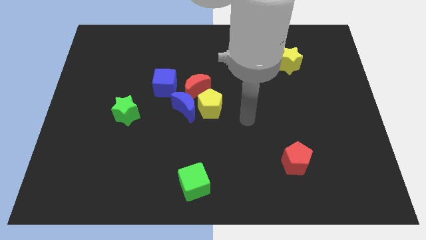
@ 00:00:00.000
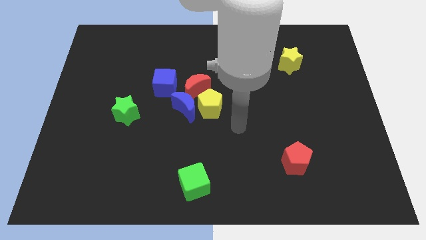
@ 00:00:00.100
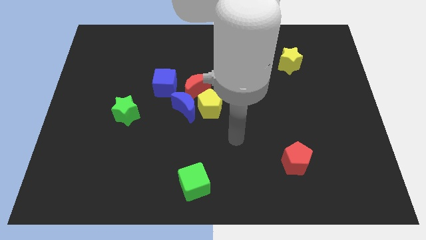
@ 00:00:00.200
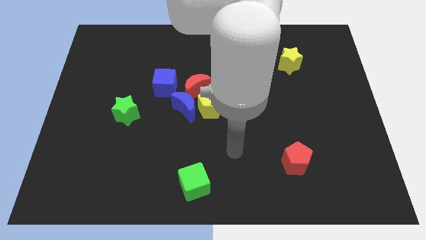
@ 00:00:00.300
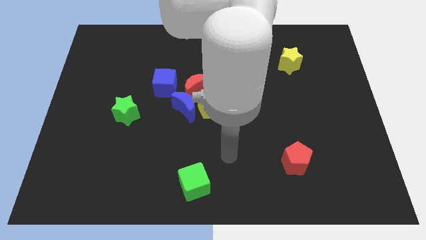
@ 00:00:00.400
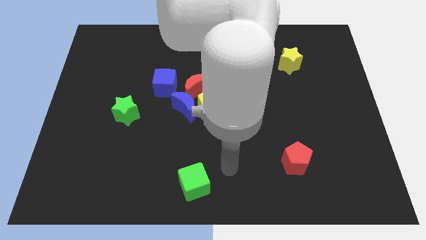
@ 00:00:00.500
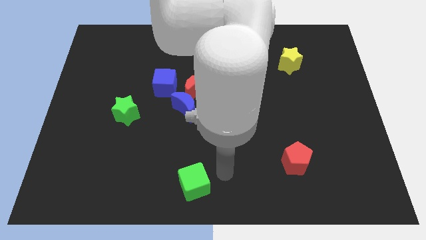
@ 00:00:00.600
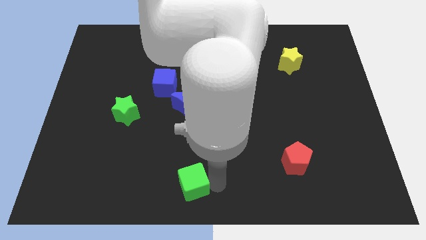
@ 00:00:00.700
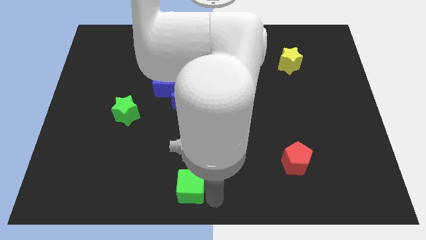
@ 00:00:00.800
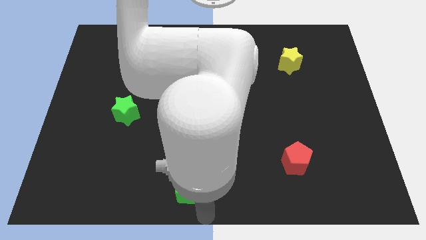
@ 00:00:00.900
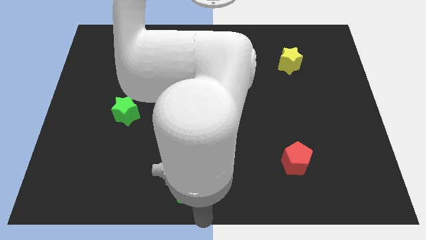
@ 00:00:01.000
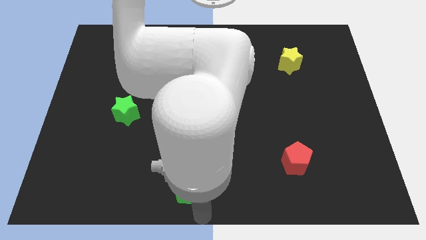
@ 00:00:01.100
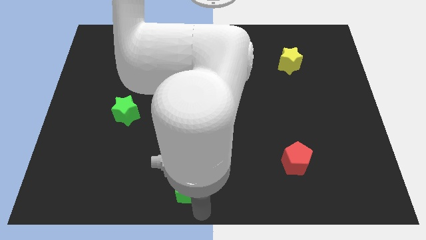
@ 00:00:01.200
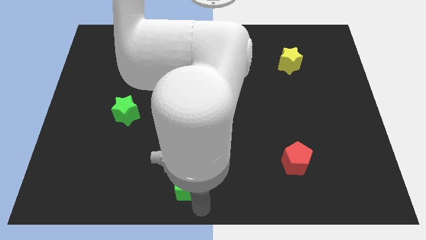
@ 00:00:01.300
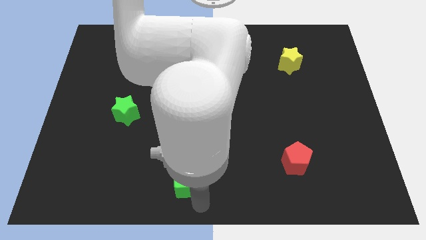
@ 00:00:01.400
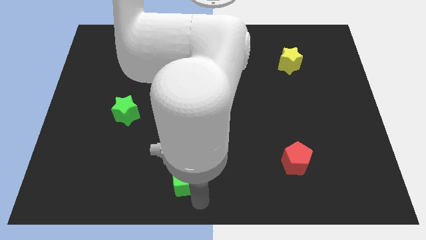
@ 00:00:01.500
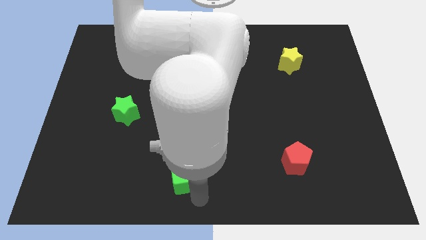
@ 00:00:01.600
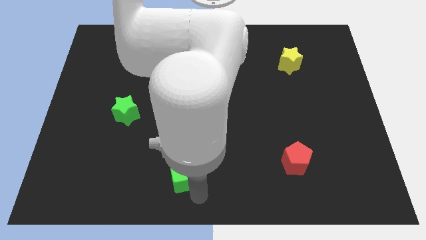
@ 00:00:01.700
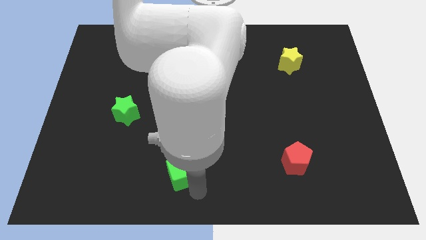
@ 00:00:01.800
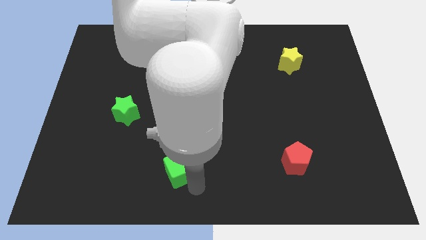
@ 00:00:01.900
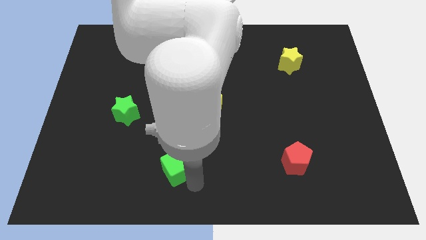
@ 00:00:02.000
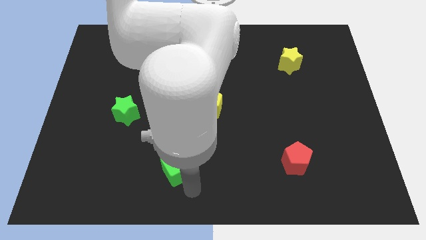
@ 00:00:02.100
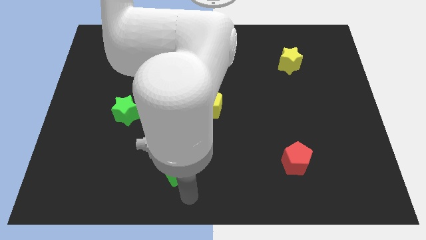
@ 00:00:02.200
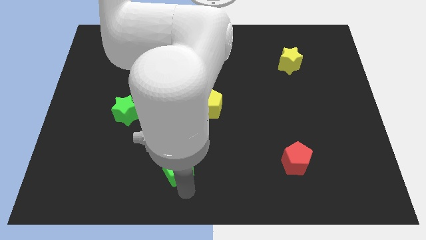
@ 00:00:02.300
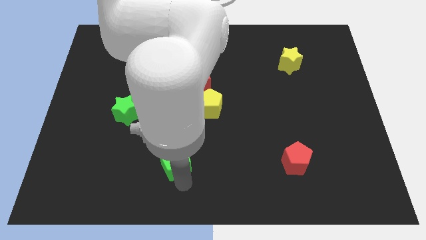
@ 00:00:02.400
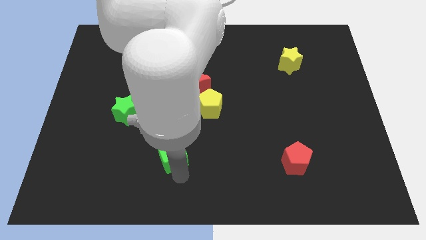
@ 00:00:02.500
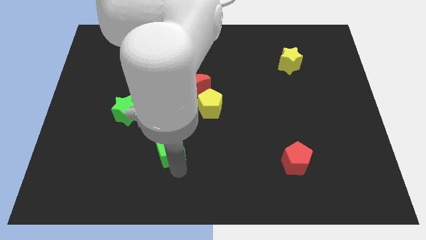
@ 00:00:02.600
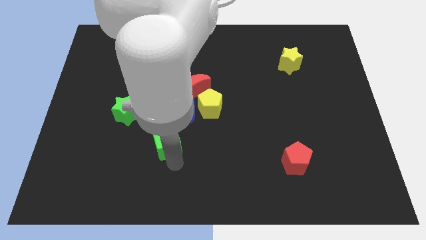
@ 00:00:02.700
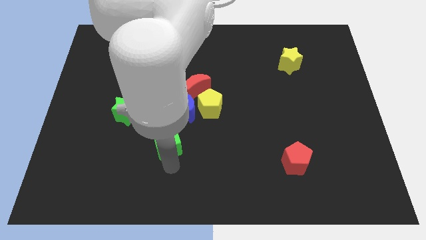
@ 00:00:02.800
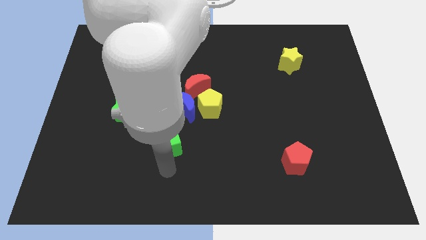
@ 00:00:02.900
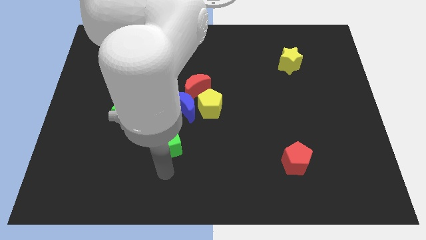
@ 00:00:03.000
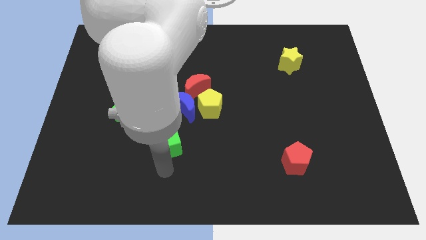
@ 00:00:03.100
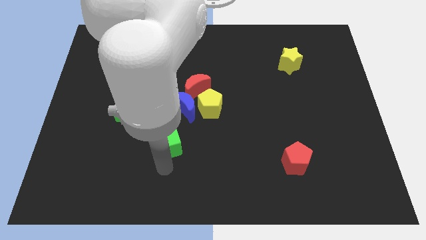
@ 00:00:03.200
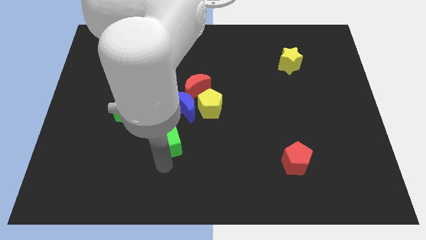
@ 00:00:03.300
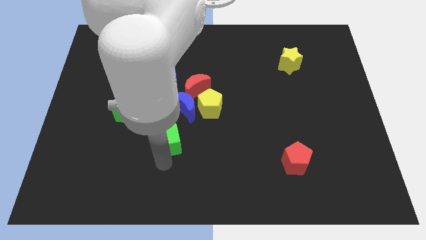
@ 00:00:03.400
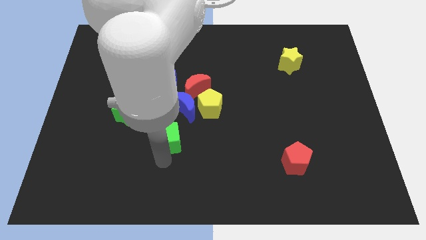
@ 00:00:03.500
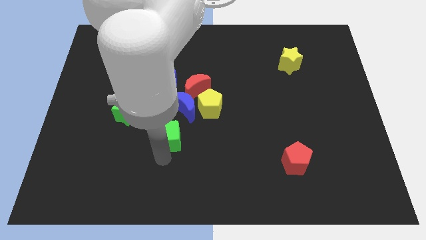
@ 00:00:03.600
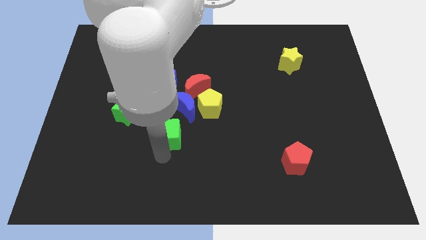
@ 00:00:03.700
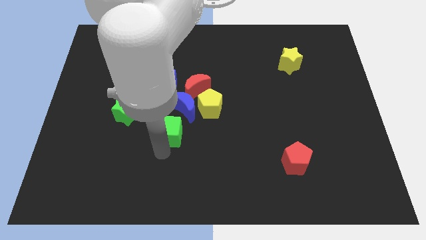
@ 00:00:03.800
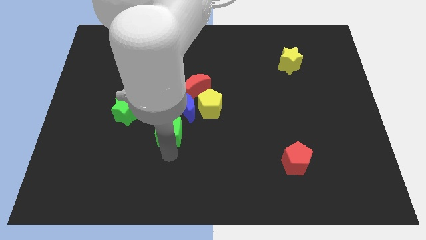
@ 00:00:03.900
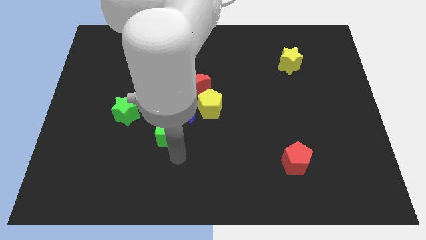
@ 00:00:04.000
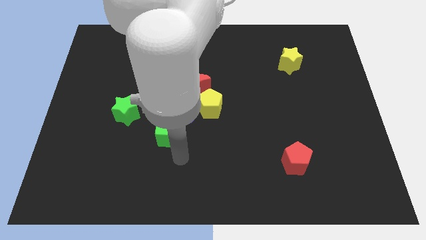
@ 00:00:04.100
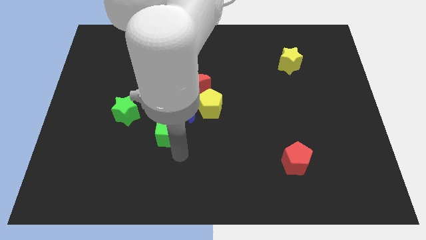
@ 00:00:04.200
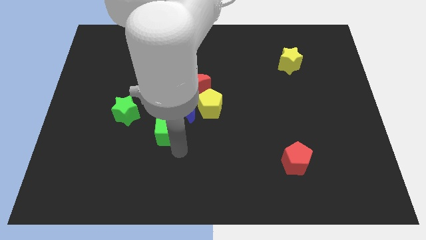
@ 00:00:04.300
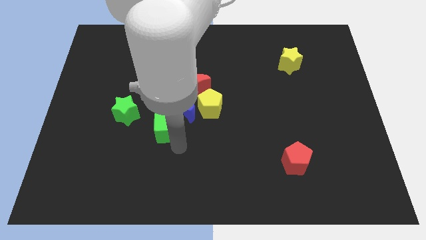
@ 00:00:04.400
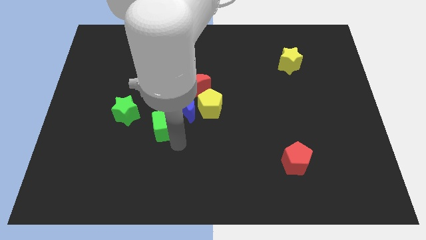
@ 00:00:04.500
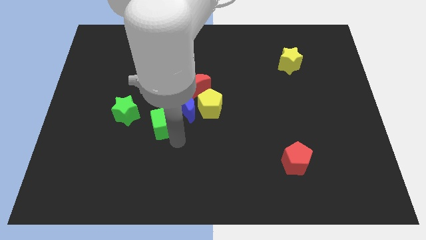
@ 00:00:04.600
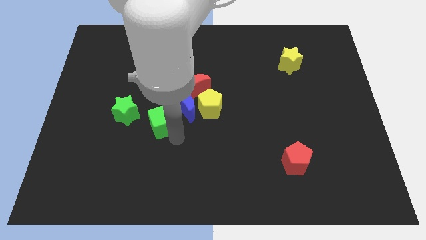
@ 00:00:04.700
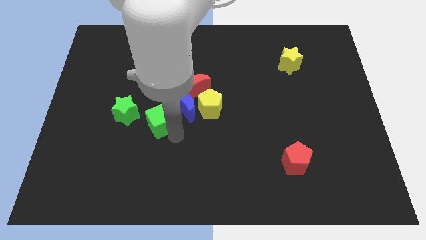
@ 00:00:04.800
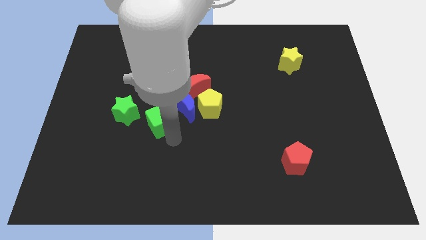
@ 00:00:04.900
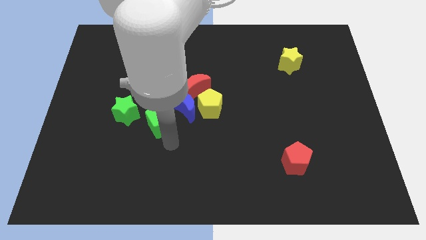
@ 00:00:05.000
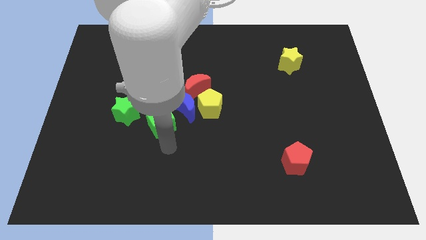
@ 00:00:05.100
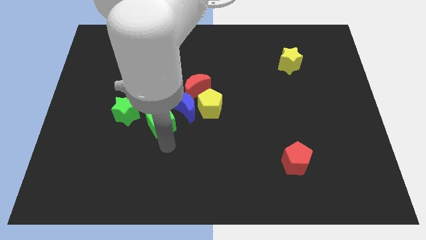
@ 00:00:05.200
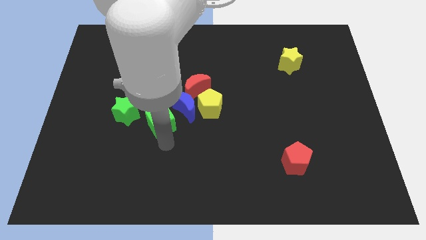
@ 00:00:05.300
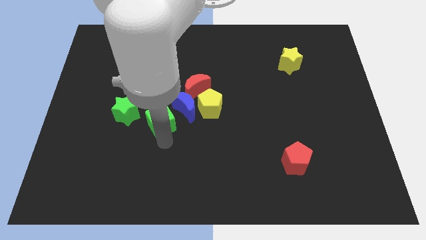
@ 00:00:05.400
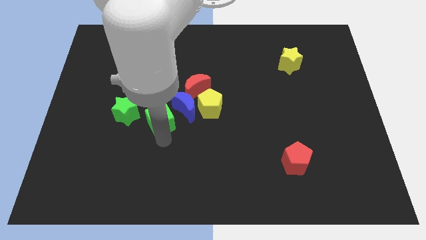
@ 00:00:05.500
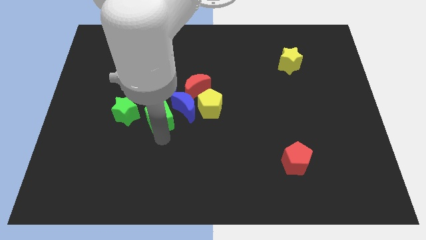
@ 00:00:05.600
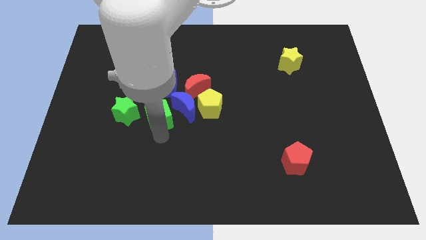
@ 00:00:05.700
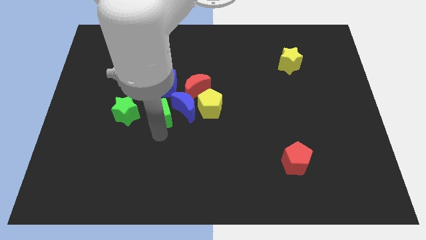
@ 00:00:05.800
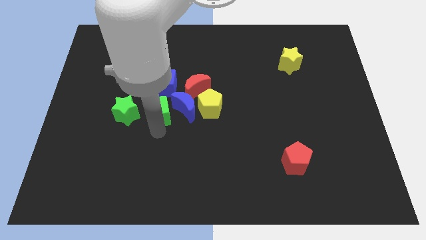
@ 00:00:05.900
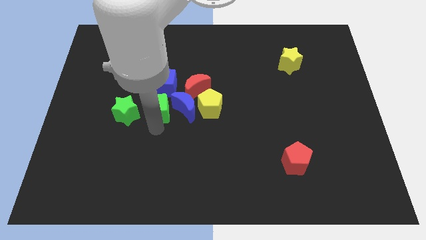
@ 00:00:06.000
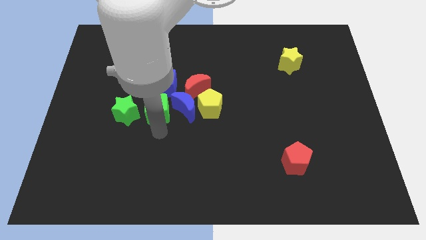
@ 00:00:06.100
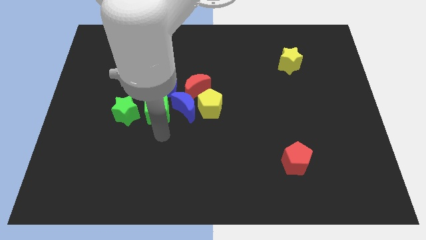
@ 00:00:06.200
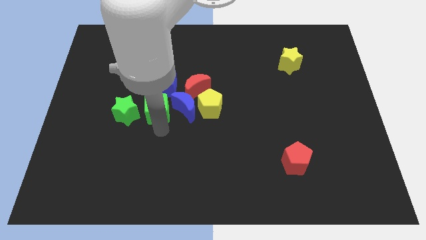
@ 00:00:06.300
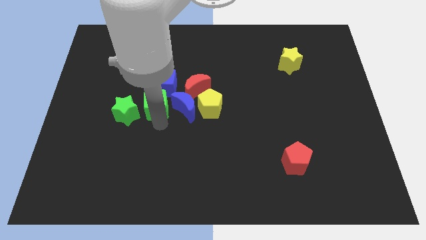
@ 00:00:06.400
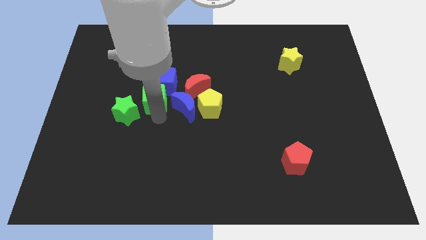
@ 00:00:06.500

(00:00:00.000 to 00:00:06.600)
push the green cube left of the red moon
